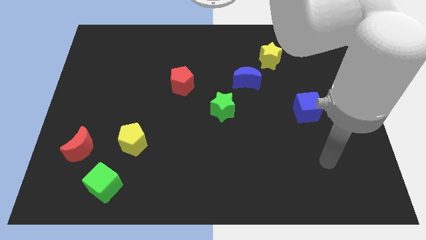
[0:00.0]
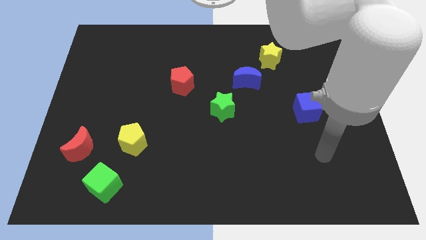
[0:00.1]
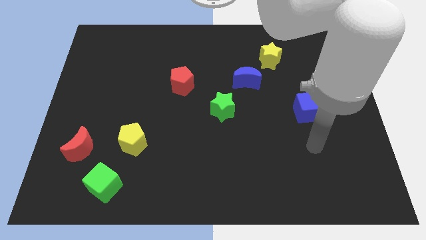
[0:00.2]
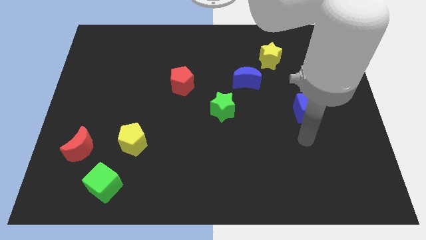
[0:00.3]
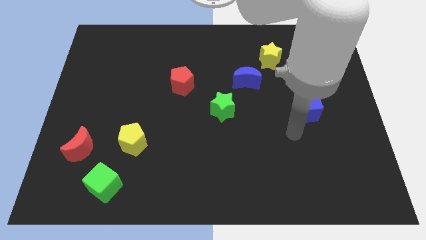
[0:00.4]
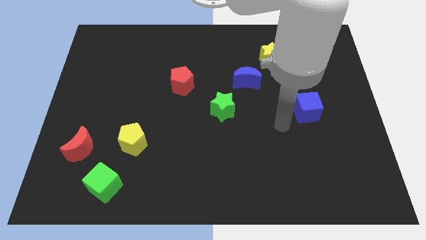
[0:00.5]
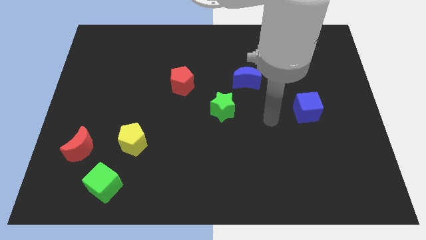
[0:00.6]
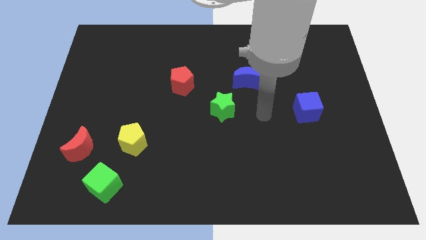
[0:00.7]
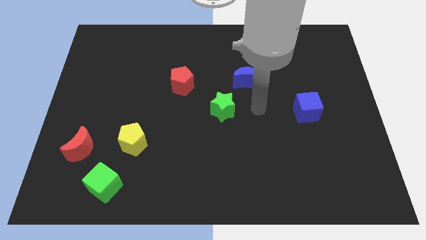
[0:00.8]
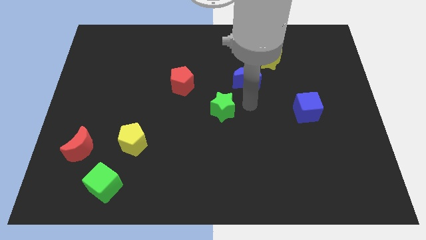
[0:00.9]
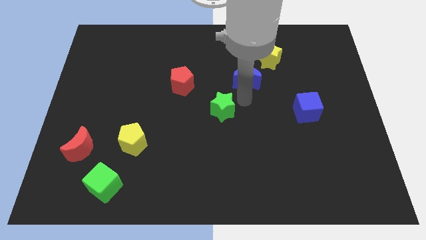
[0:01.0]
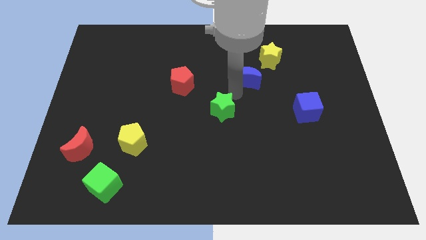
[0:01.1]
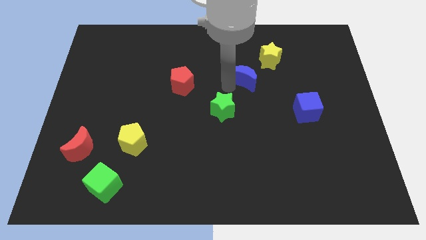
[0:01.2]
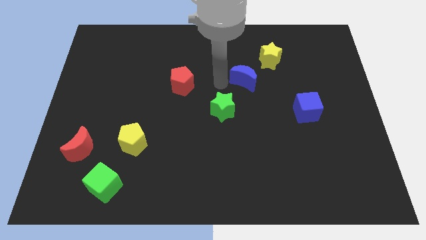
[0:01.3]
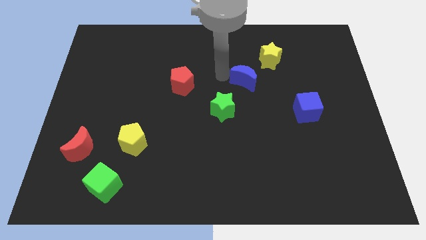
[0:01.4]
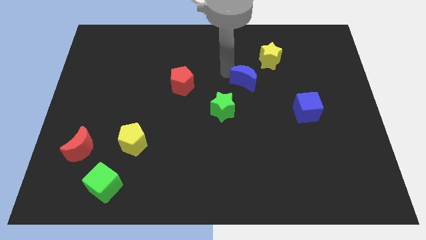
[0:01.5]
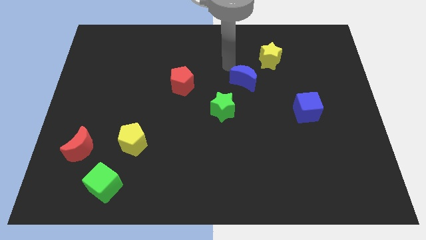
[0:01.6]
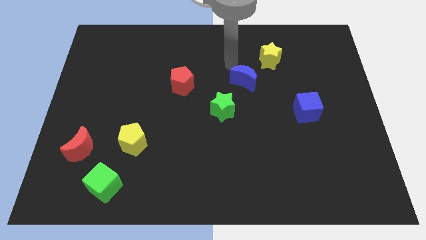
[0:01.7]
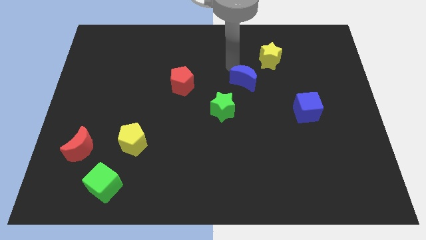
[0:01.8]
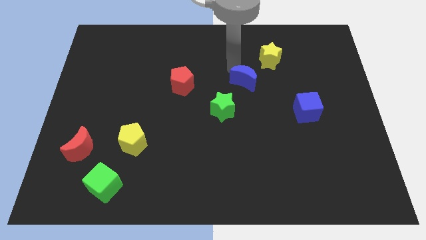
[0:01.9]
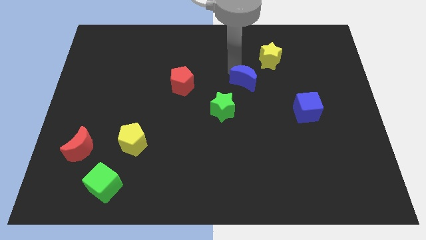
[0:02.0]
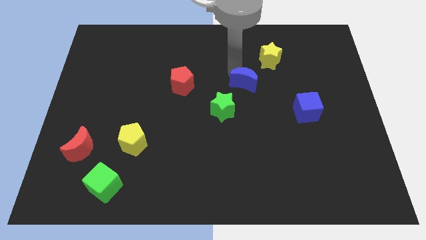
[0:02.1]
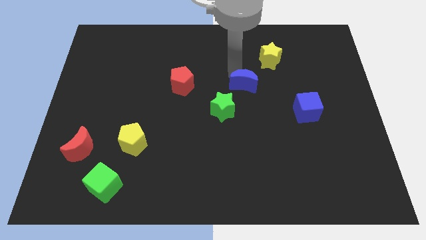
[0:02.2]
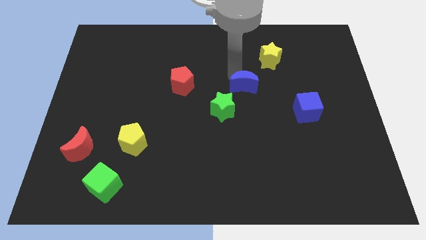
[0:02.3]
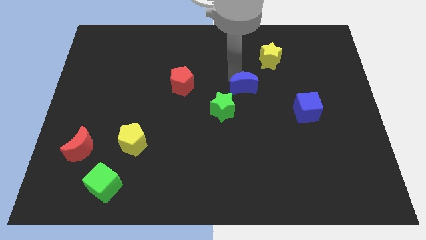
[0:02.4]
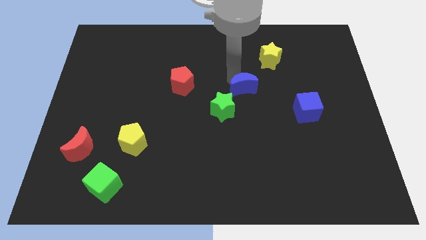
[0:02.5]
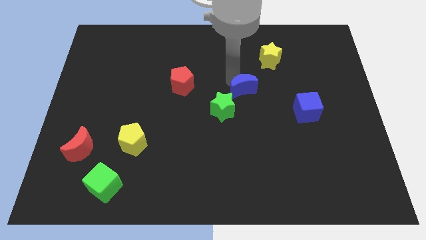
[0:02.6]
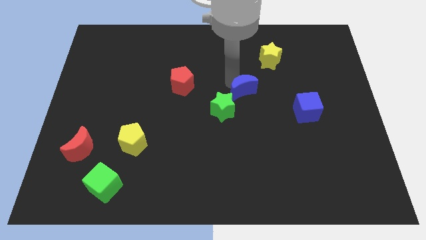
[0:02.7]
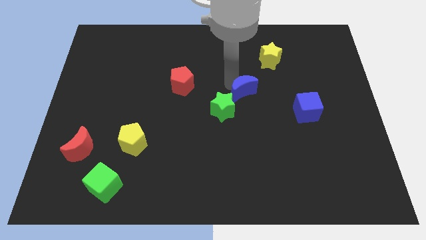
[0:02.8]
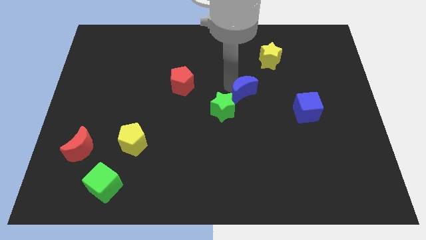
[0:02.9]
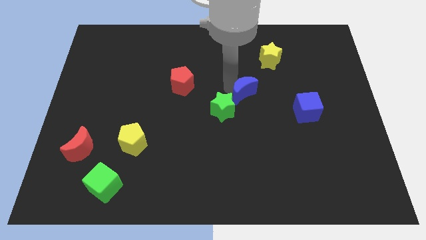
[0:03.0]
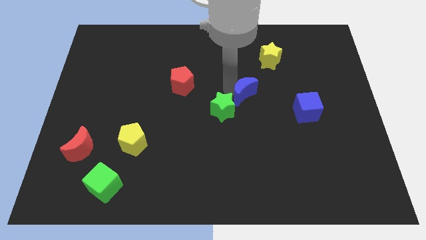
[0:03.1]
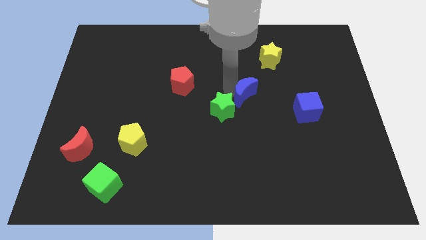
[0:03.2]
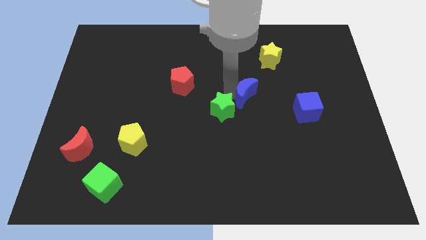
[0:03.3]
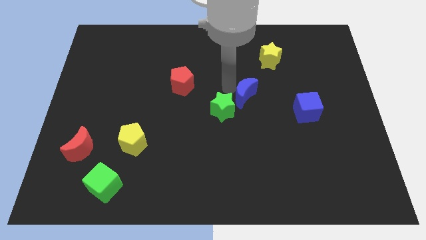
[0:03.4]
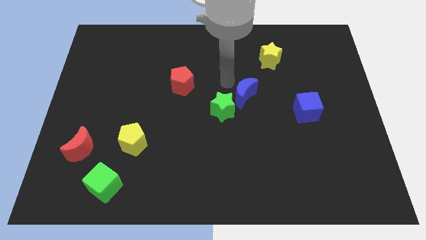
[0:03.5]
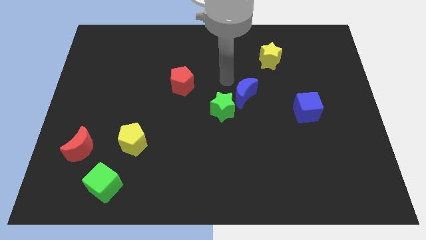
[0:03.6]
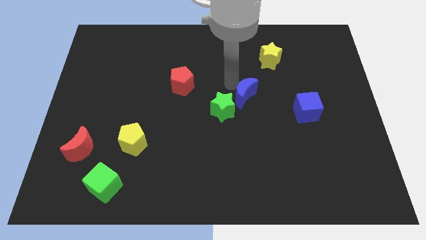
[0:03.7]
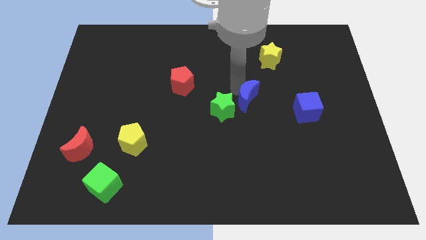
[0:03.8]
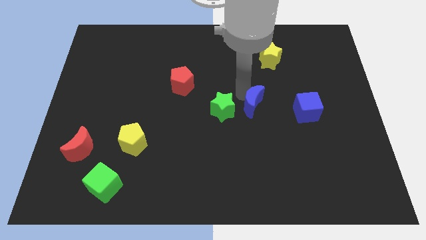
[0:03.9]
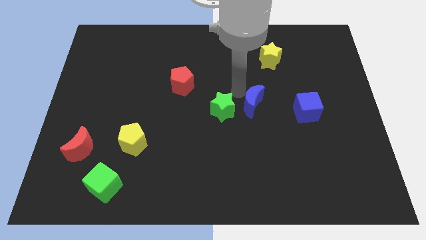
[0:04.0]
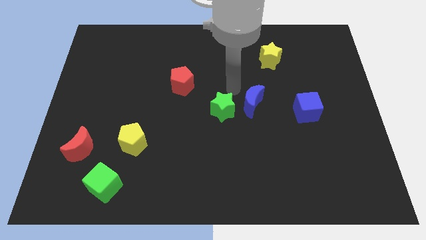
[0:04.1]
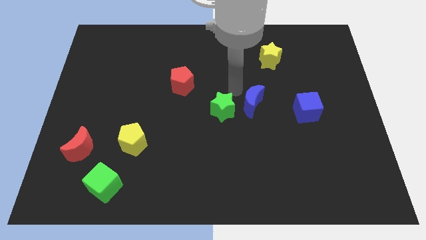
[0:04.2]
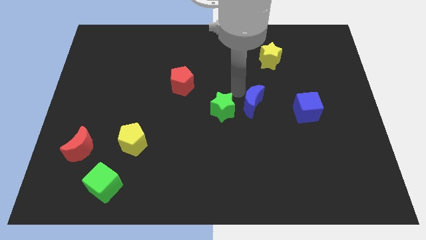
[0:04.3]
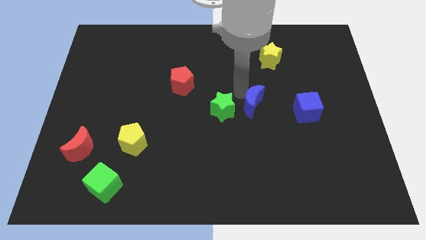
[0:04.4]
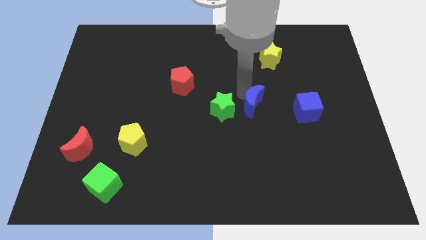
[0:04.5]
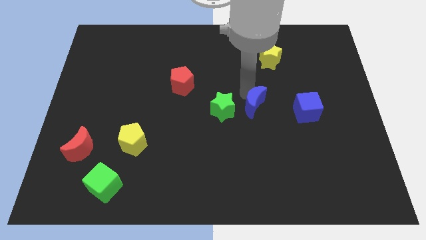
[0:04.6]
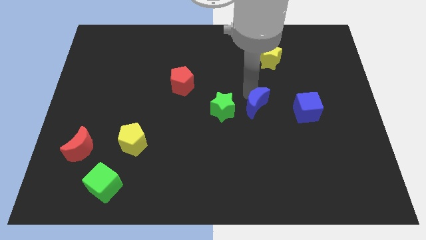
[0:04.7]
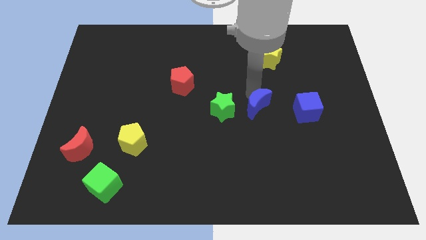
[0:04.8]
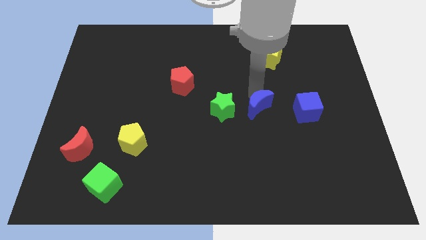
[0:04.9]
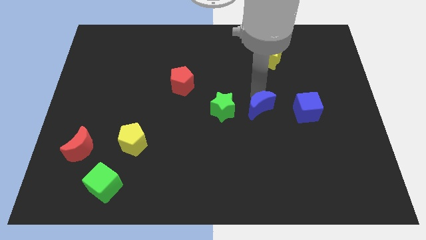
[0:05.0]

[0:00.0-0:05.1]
slide the blue moon down and to the right a bit

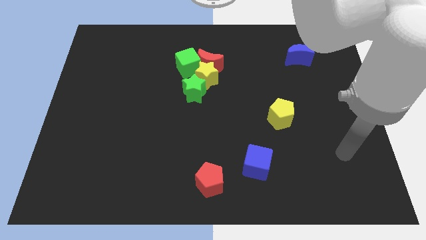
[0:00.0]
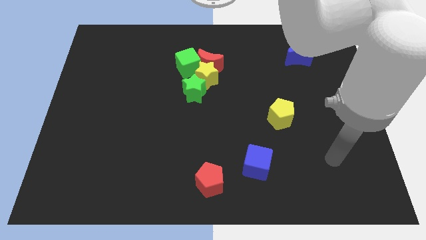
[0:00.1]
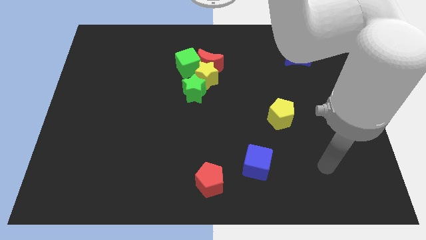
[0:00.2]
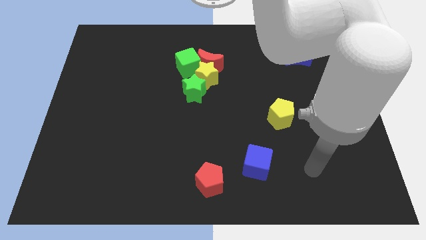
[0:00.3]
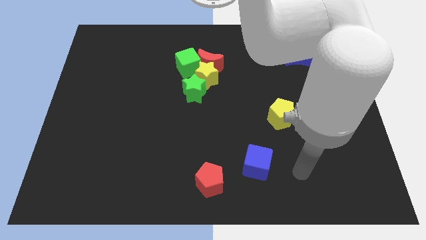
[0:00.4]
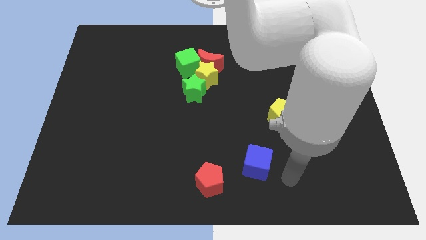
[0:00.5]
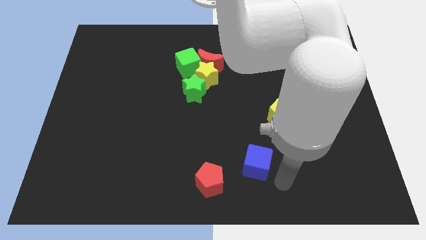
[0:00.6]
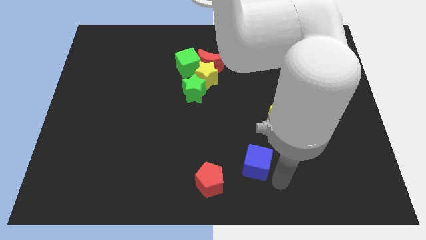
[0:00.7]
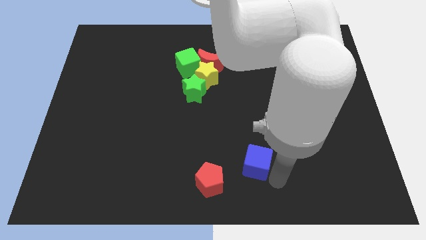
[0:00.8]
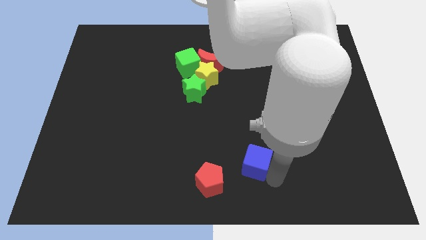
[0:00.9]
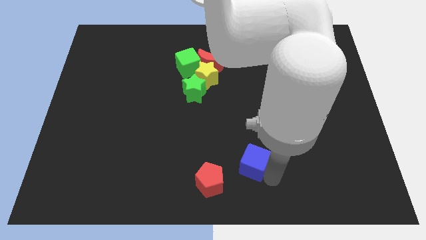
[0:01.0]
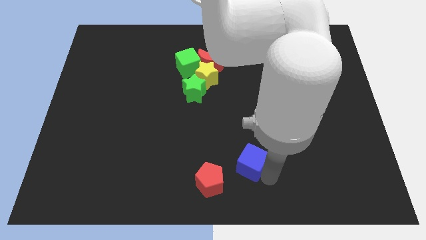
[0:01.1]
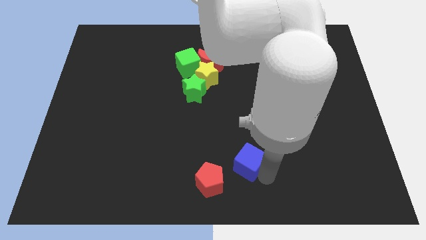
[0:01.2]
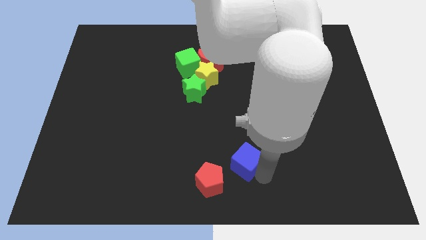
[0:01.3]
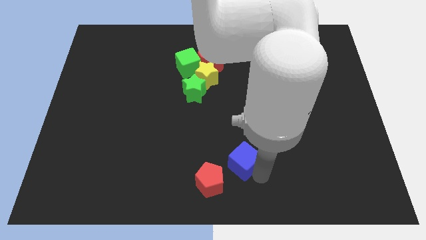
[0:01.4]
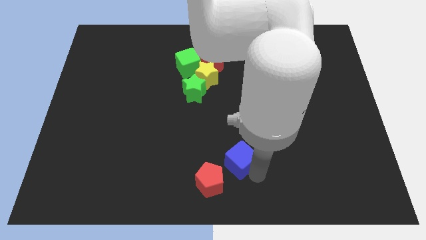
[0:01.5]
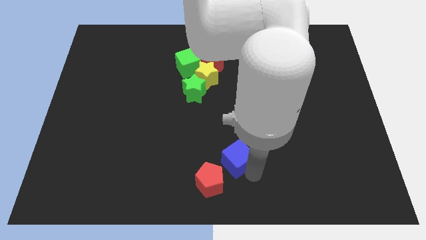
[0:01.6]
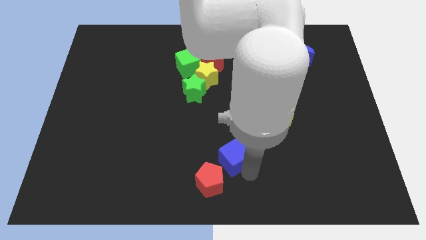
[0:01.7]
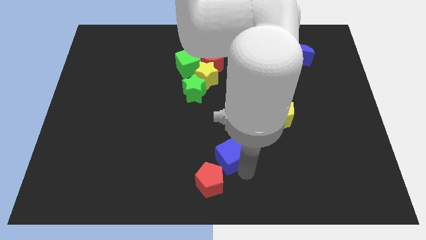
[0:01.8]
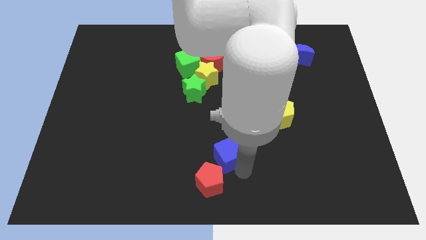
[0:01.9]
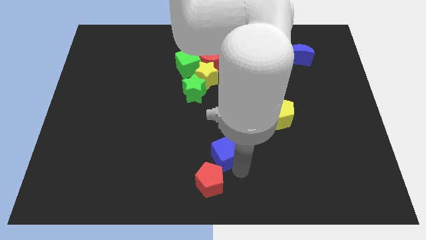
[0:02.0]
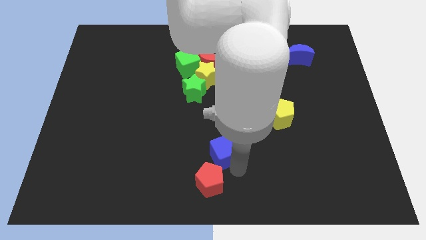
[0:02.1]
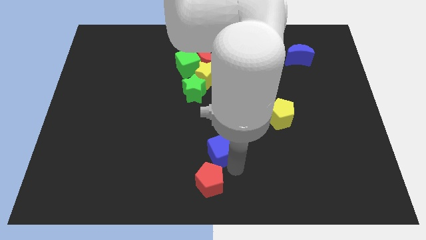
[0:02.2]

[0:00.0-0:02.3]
slightly move the blue cube upwards and then left

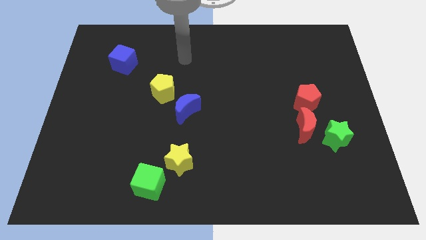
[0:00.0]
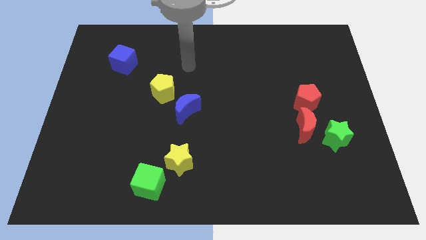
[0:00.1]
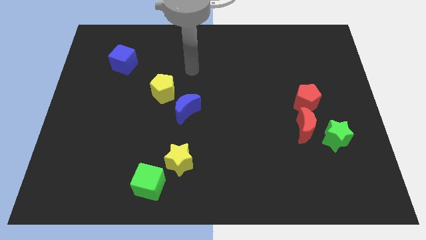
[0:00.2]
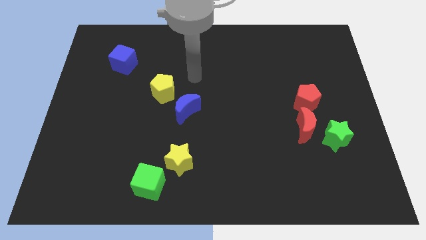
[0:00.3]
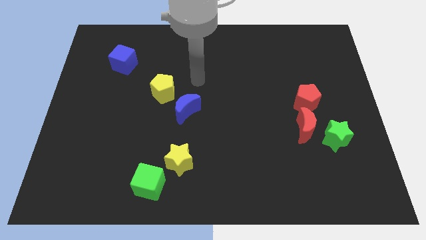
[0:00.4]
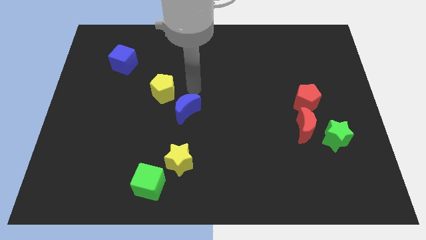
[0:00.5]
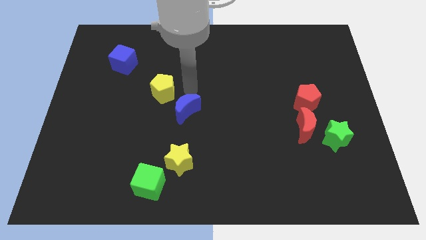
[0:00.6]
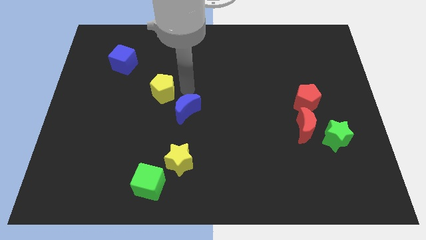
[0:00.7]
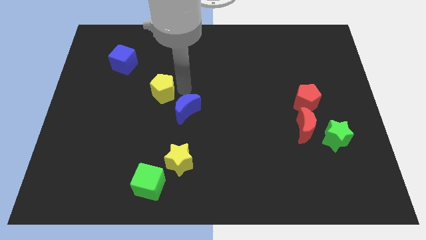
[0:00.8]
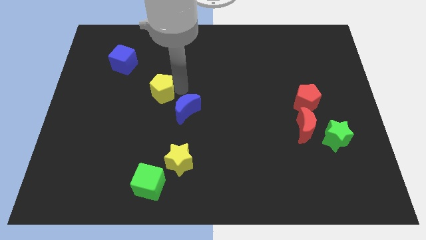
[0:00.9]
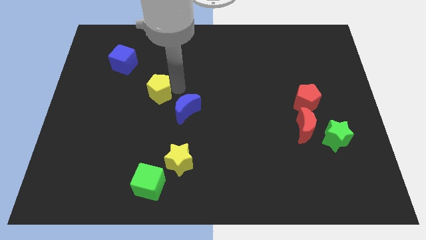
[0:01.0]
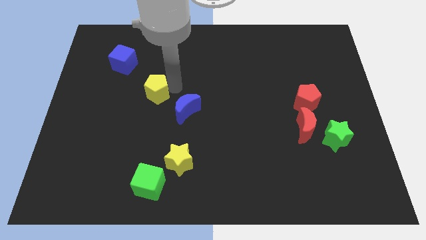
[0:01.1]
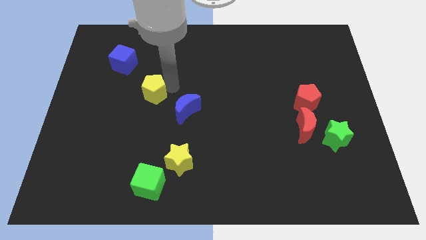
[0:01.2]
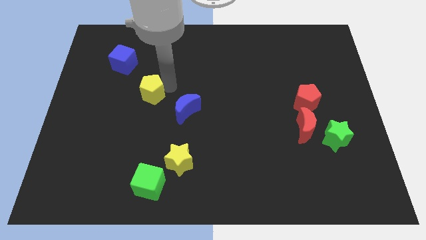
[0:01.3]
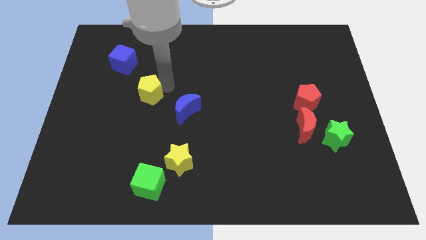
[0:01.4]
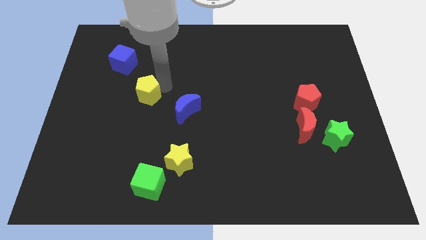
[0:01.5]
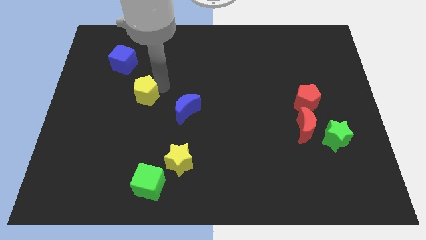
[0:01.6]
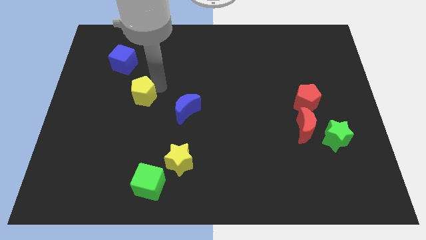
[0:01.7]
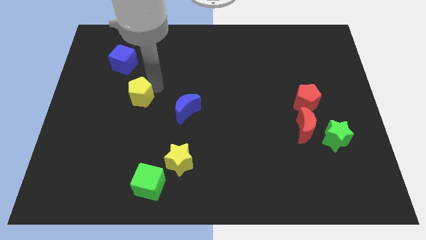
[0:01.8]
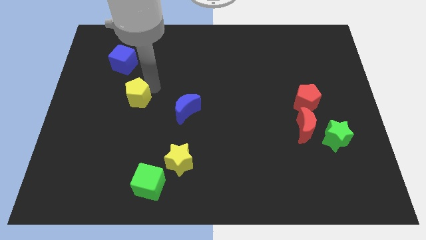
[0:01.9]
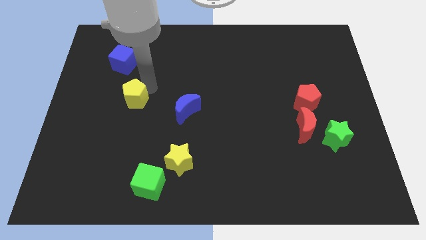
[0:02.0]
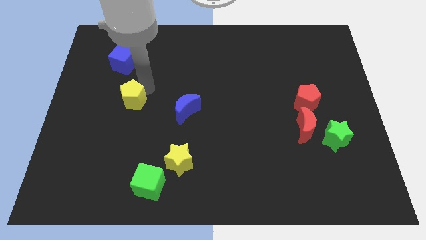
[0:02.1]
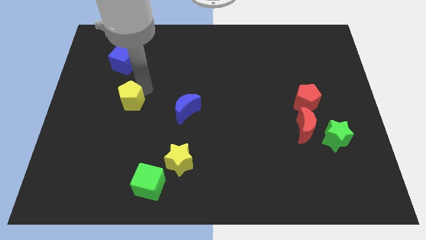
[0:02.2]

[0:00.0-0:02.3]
slightly slide the yellow pentagon down and then left
